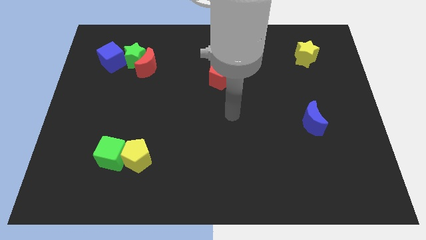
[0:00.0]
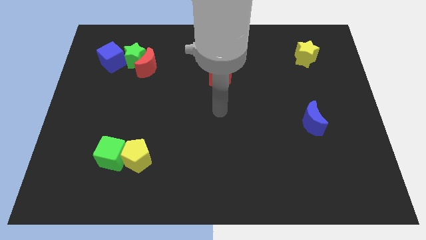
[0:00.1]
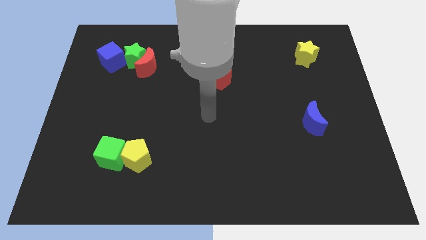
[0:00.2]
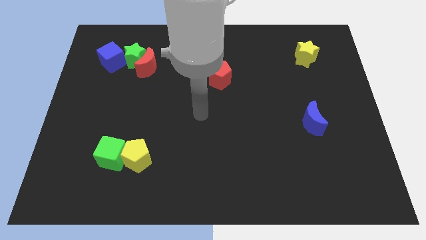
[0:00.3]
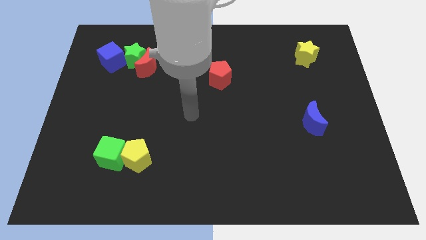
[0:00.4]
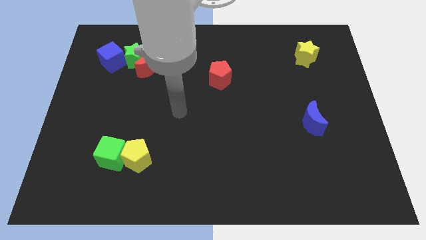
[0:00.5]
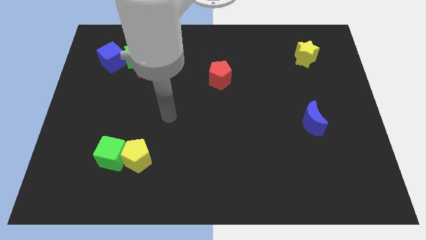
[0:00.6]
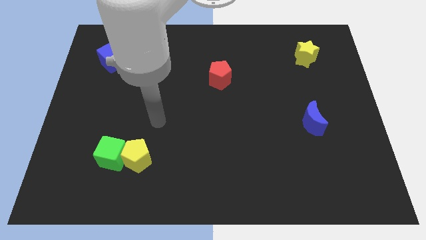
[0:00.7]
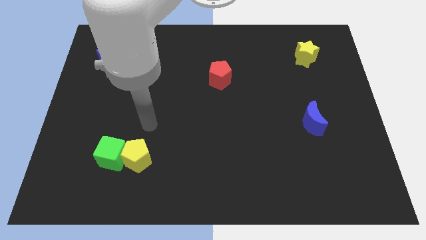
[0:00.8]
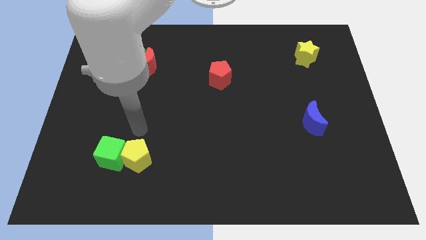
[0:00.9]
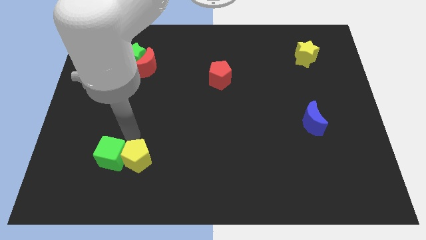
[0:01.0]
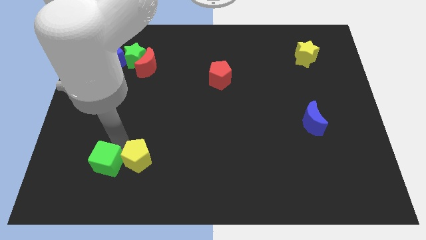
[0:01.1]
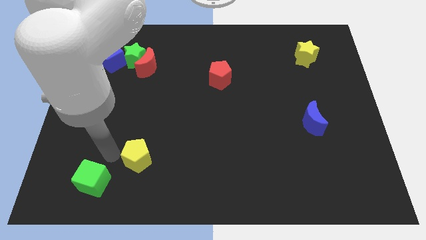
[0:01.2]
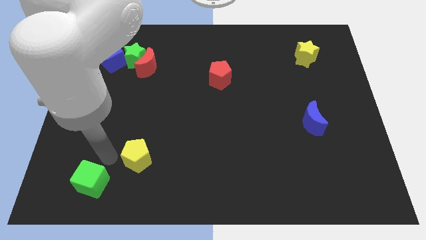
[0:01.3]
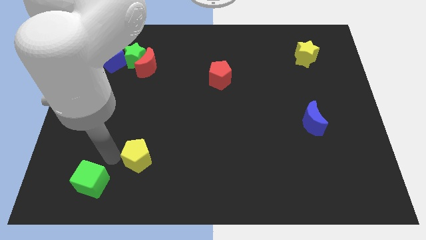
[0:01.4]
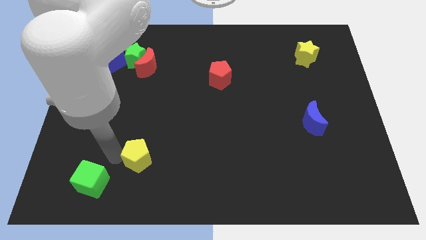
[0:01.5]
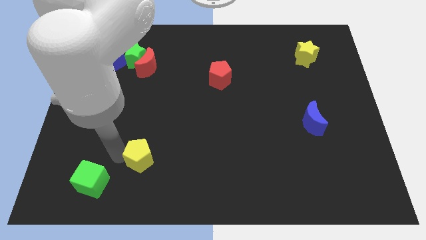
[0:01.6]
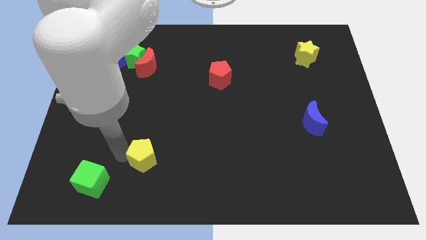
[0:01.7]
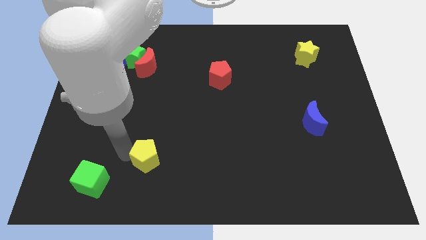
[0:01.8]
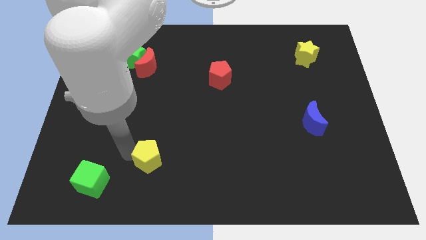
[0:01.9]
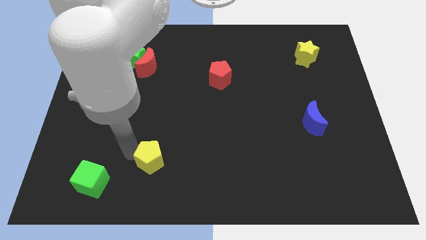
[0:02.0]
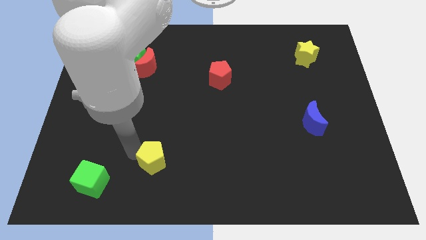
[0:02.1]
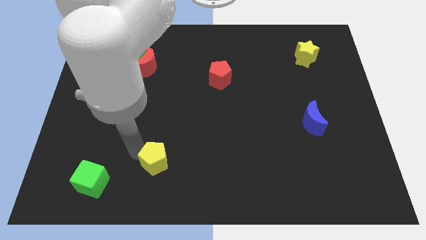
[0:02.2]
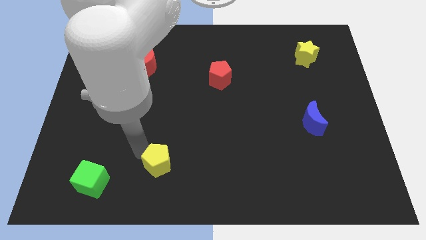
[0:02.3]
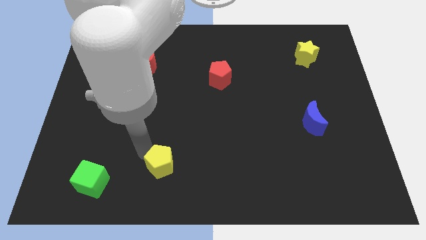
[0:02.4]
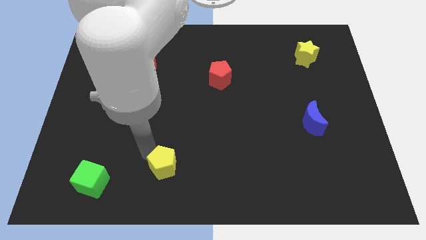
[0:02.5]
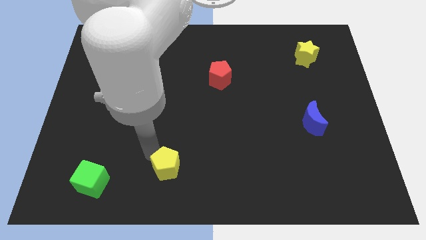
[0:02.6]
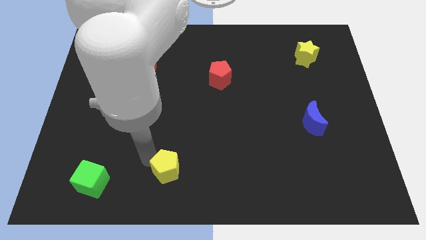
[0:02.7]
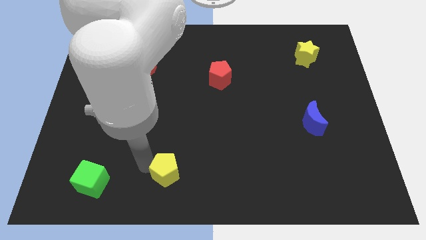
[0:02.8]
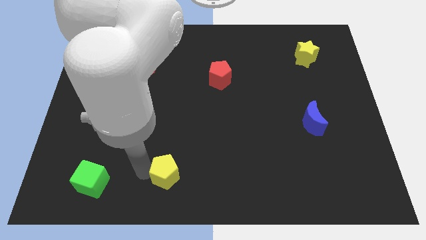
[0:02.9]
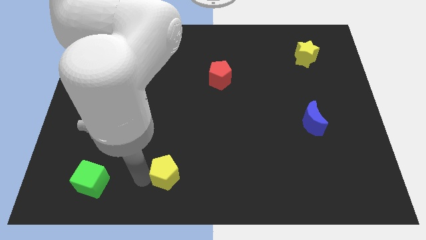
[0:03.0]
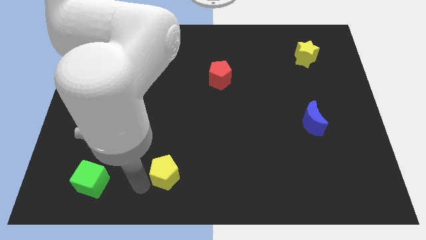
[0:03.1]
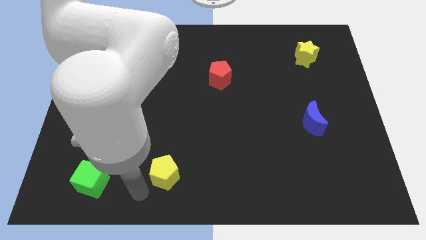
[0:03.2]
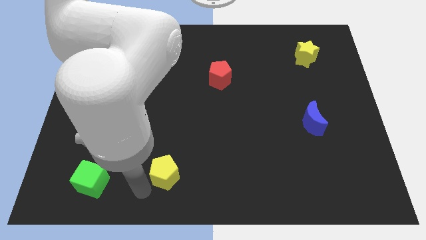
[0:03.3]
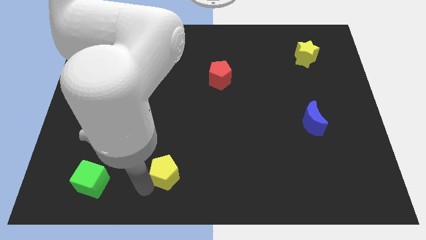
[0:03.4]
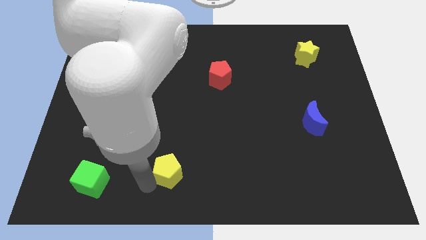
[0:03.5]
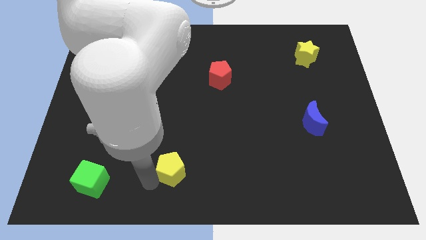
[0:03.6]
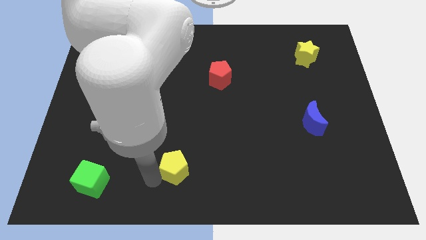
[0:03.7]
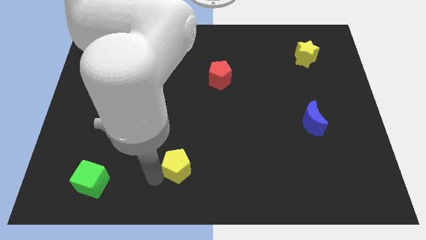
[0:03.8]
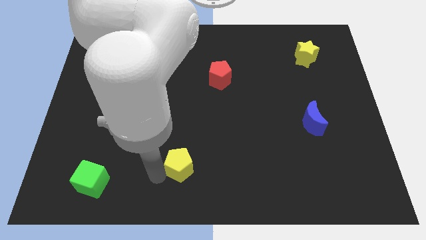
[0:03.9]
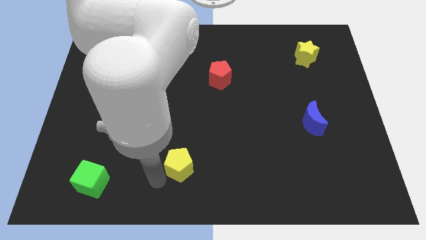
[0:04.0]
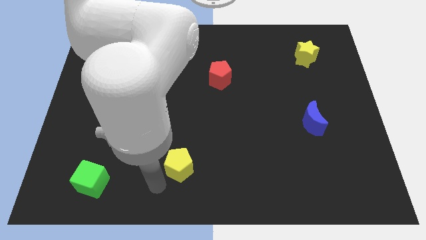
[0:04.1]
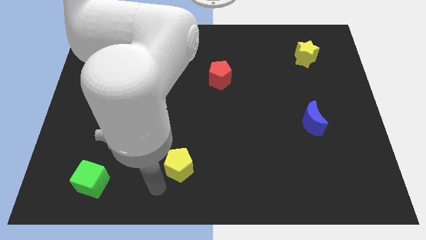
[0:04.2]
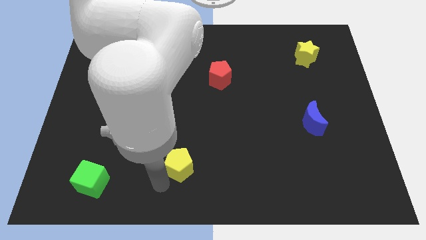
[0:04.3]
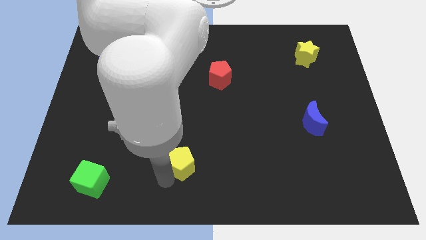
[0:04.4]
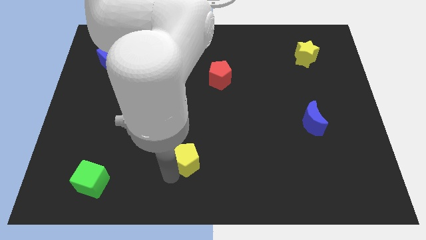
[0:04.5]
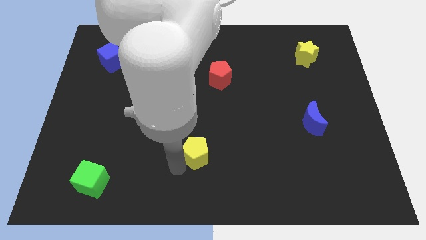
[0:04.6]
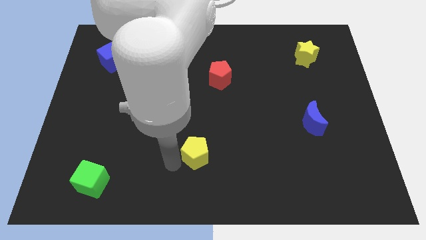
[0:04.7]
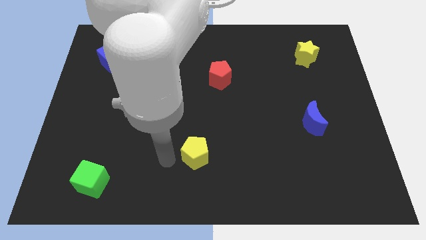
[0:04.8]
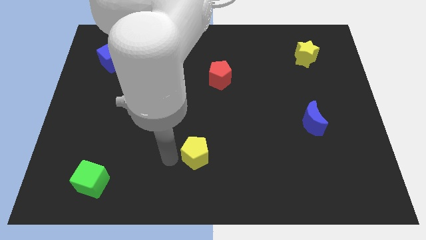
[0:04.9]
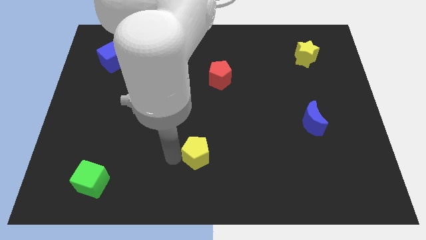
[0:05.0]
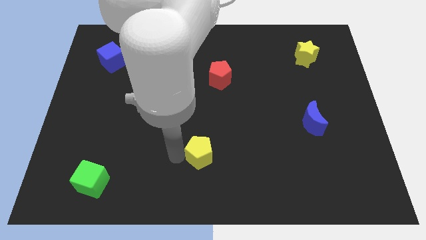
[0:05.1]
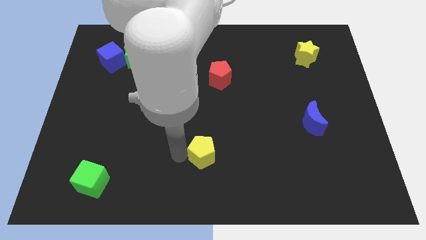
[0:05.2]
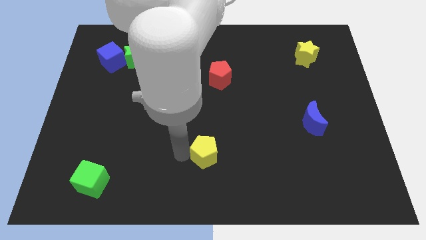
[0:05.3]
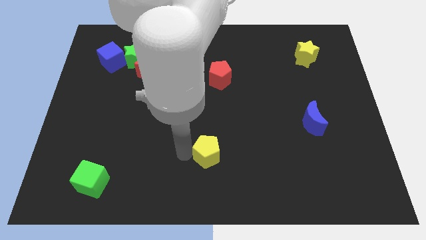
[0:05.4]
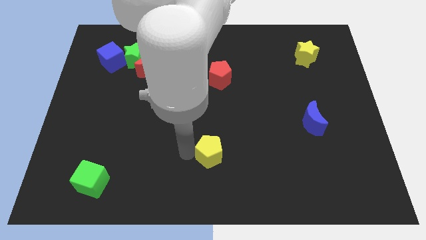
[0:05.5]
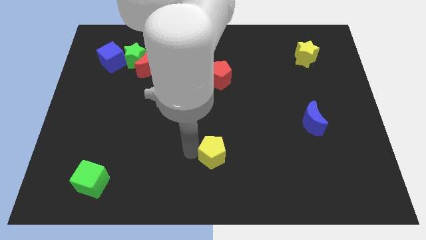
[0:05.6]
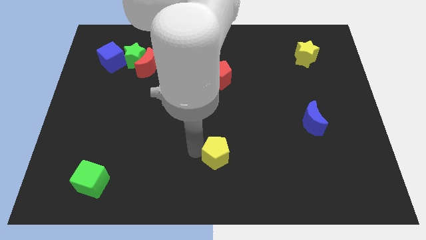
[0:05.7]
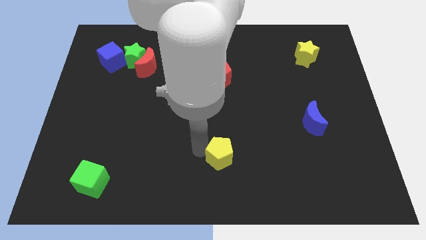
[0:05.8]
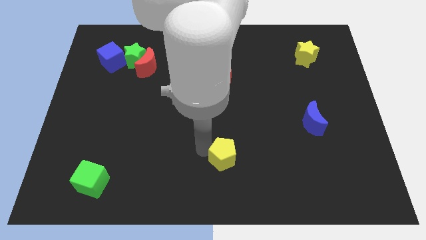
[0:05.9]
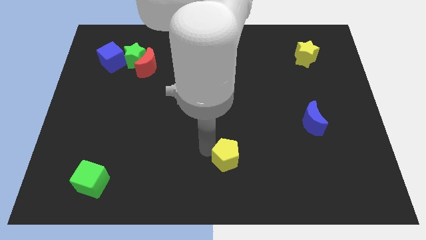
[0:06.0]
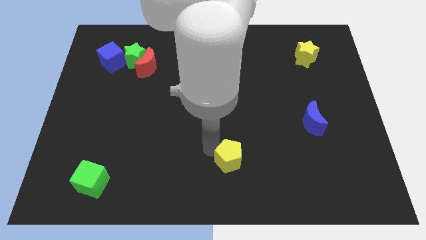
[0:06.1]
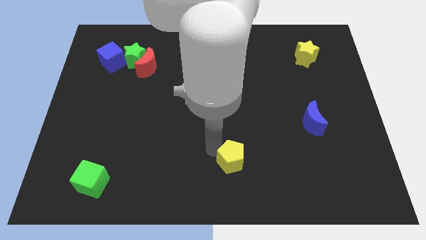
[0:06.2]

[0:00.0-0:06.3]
move the yellow pentagon to the right

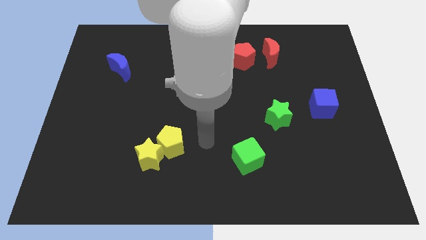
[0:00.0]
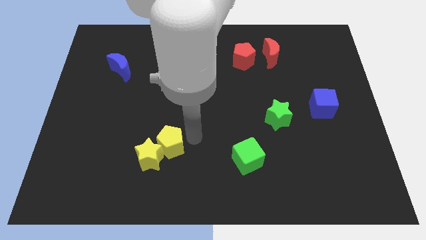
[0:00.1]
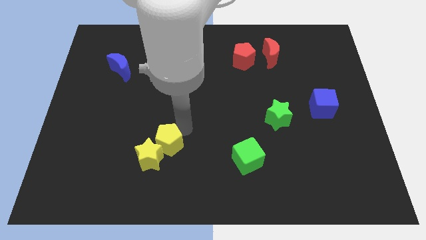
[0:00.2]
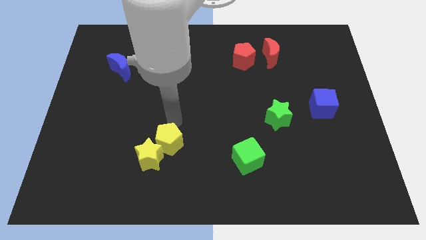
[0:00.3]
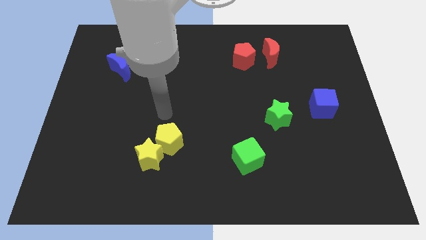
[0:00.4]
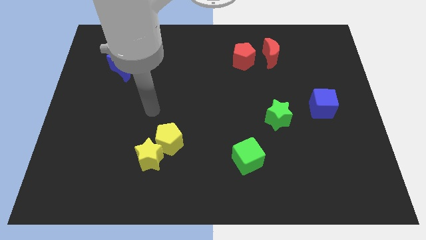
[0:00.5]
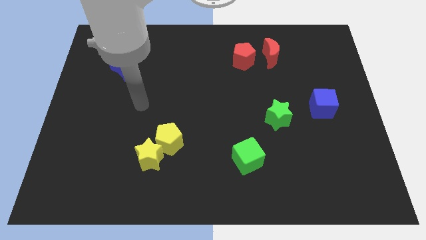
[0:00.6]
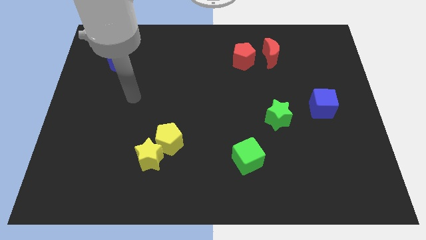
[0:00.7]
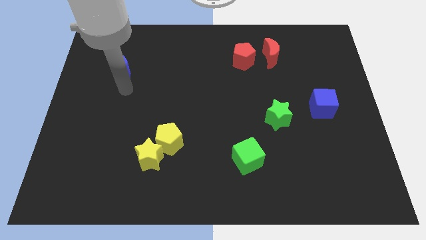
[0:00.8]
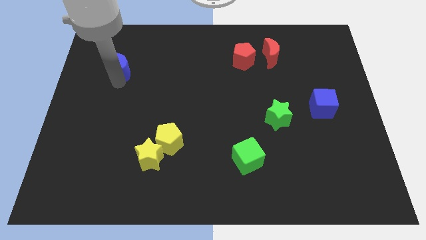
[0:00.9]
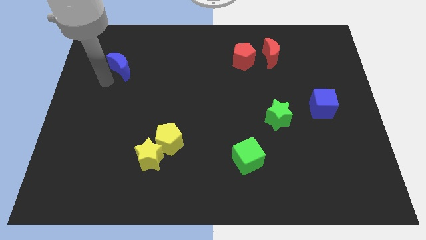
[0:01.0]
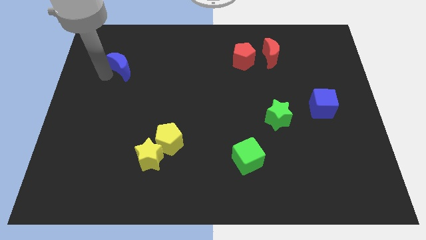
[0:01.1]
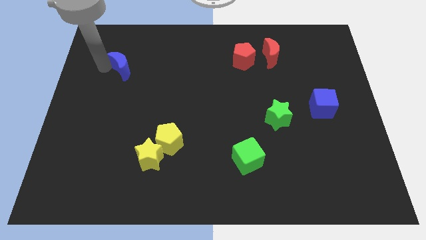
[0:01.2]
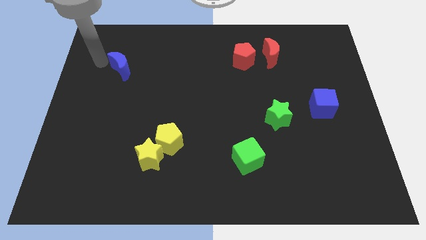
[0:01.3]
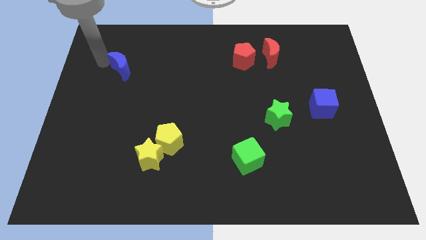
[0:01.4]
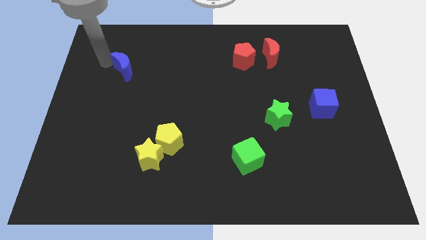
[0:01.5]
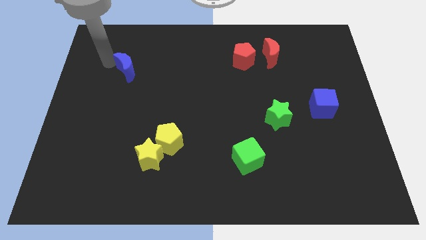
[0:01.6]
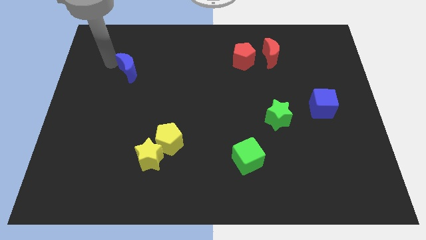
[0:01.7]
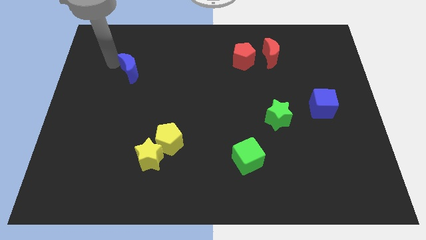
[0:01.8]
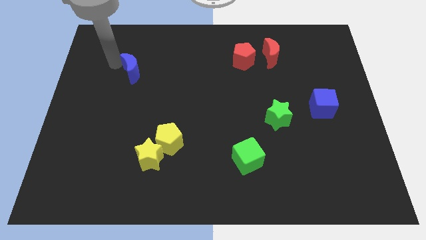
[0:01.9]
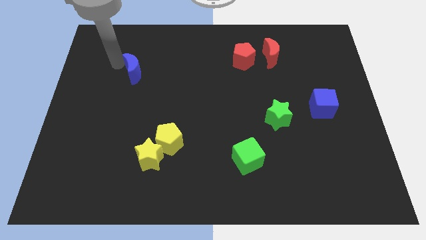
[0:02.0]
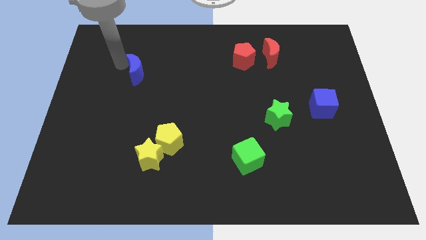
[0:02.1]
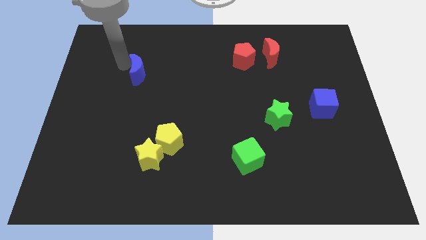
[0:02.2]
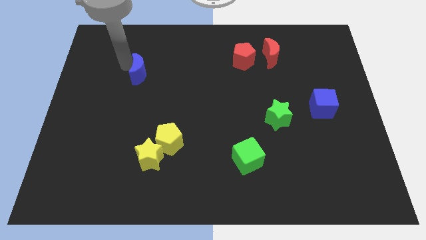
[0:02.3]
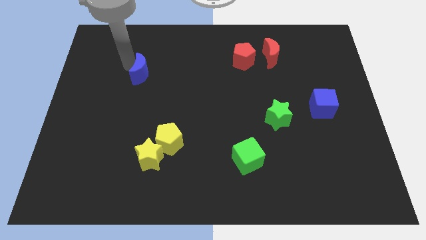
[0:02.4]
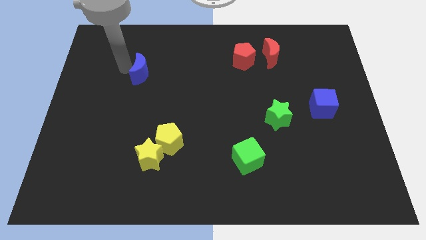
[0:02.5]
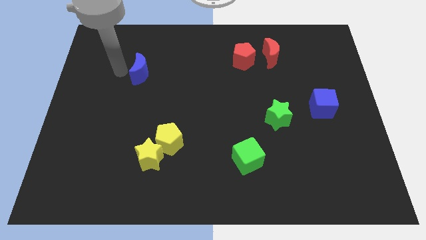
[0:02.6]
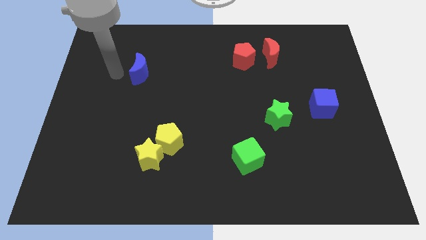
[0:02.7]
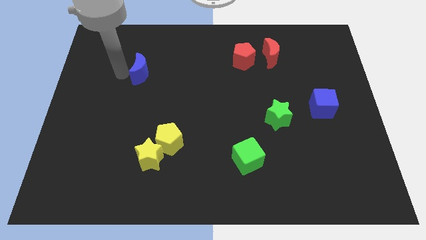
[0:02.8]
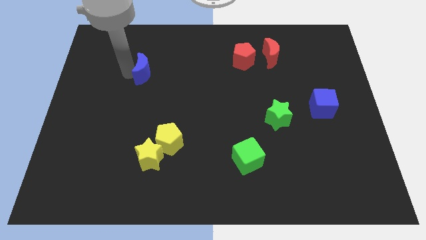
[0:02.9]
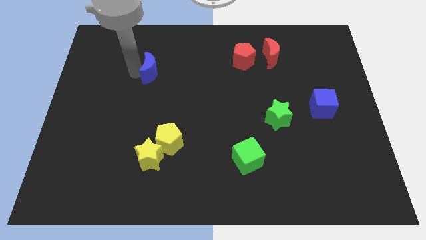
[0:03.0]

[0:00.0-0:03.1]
slightly push the blue moon to the right
